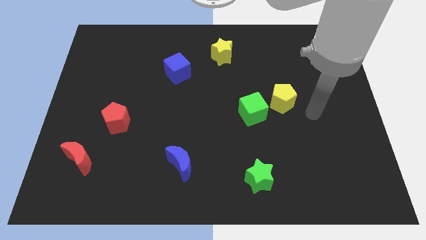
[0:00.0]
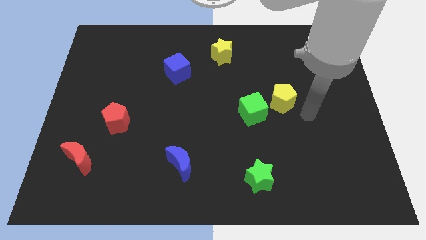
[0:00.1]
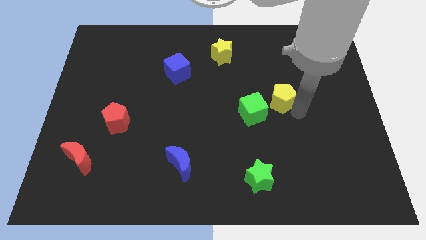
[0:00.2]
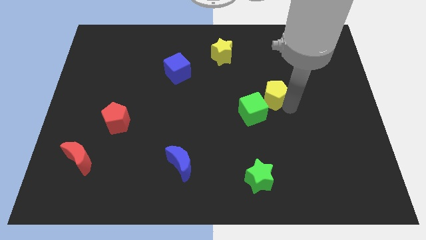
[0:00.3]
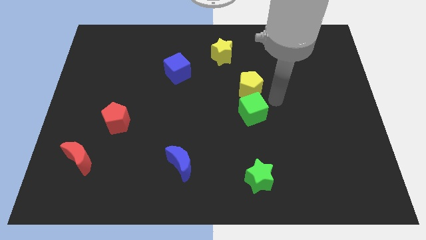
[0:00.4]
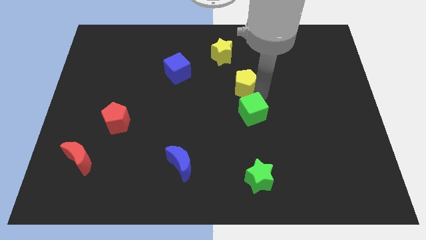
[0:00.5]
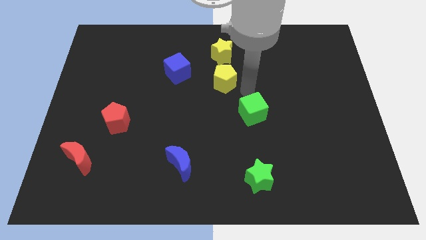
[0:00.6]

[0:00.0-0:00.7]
separate the green cube from the yellow pentagon

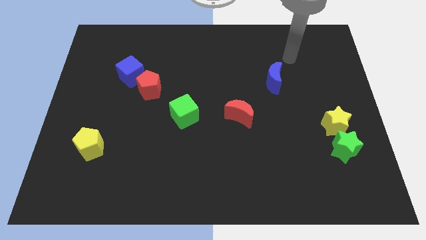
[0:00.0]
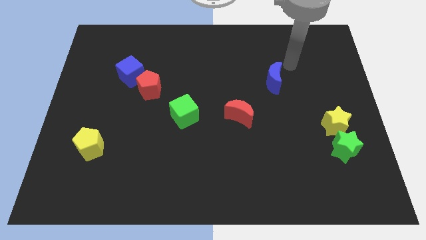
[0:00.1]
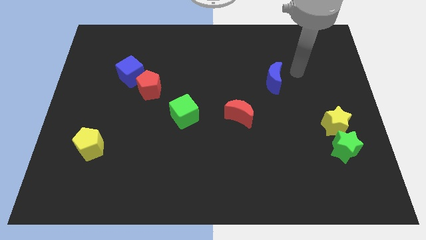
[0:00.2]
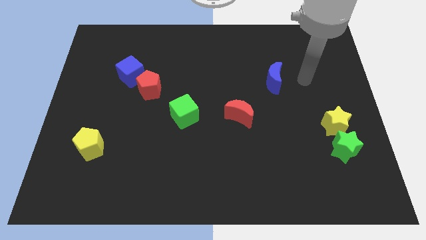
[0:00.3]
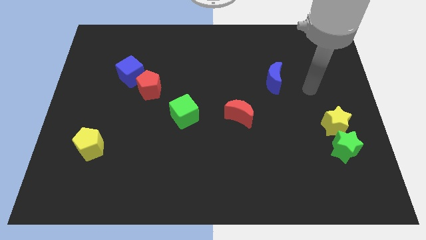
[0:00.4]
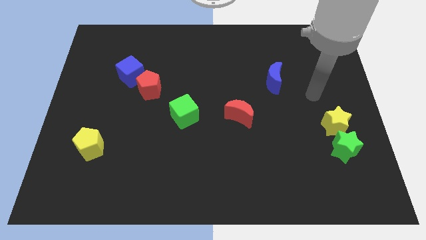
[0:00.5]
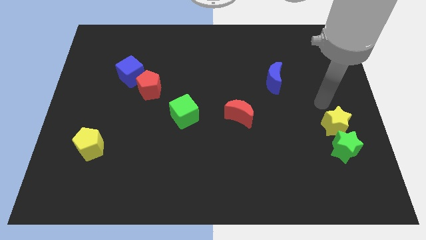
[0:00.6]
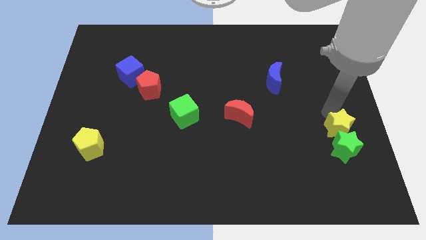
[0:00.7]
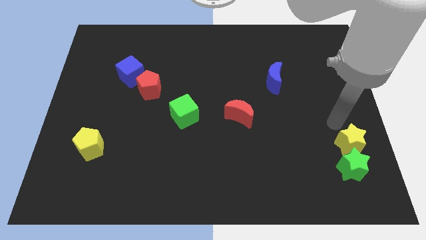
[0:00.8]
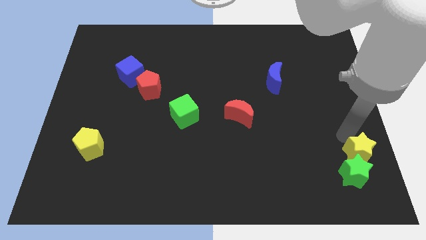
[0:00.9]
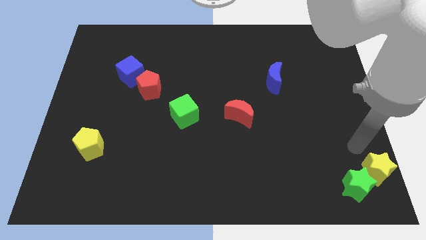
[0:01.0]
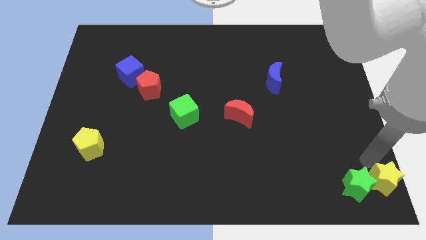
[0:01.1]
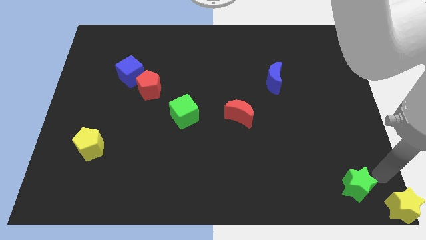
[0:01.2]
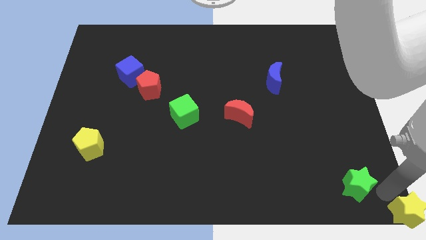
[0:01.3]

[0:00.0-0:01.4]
separate the green star from the yellow star

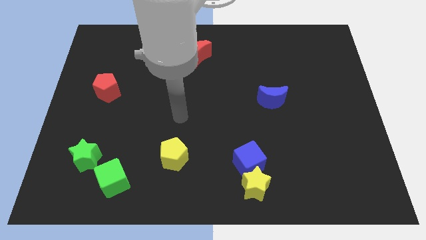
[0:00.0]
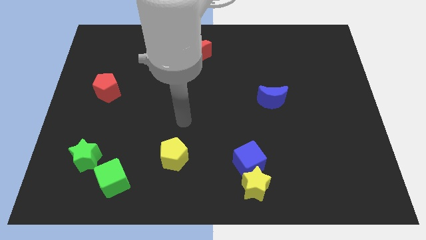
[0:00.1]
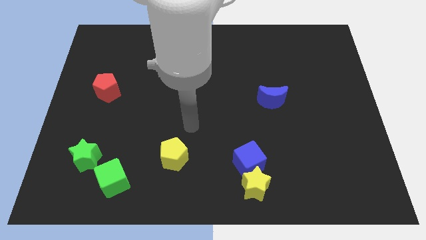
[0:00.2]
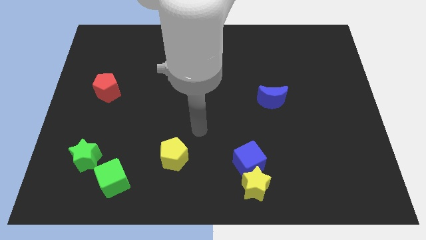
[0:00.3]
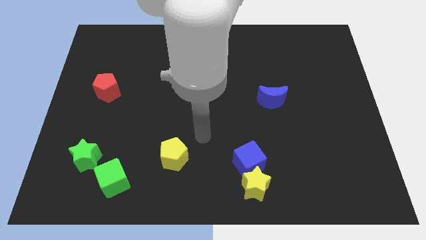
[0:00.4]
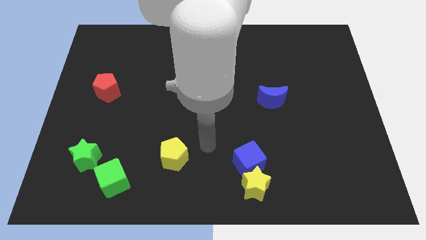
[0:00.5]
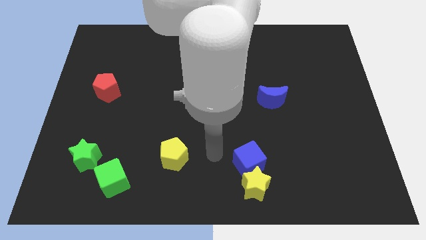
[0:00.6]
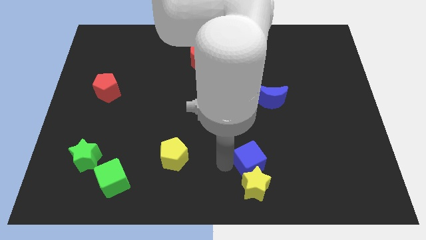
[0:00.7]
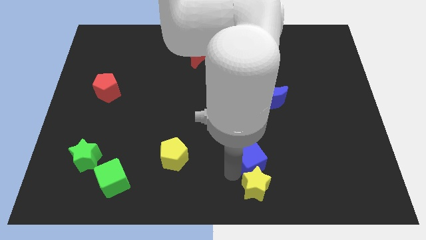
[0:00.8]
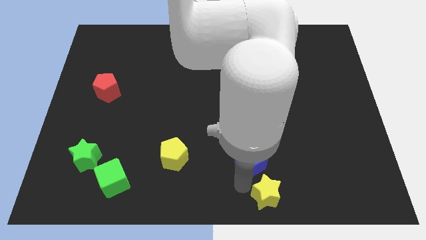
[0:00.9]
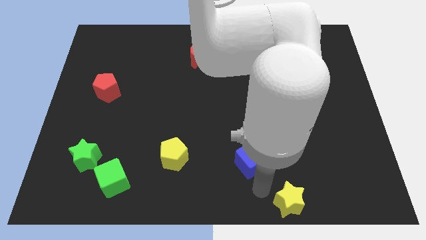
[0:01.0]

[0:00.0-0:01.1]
move the blue cube away from the yellow star

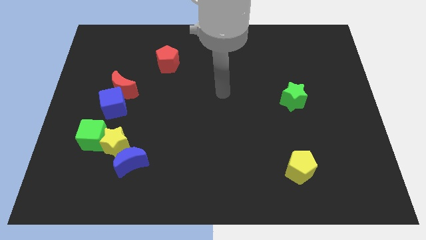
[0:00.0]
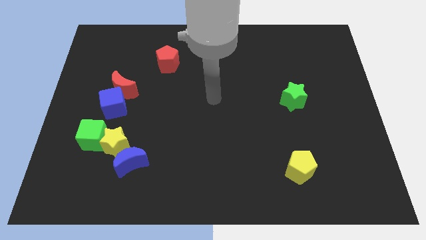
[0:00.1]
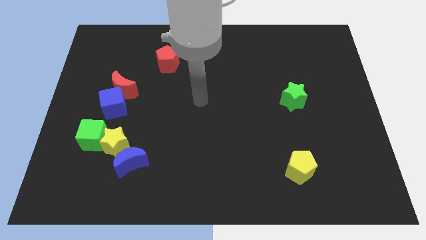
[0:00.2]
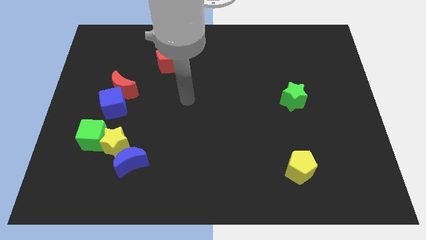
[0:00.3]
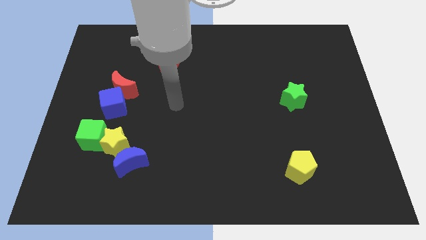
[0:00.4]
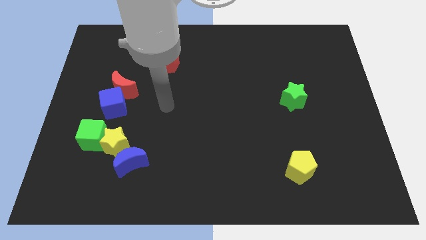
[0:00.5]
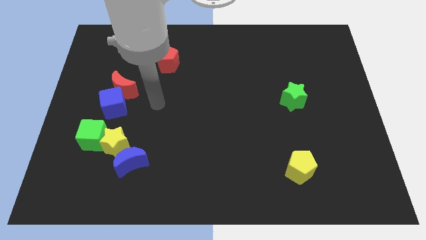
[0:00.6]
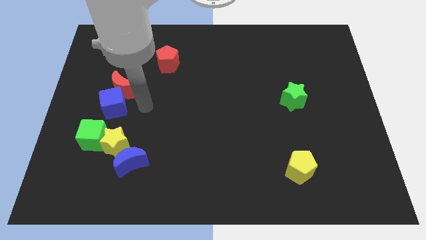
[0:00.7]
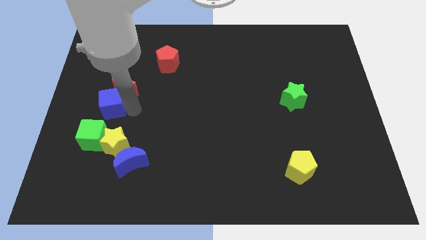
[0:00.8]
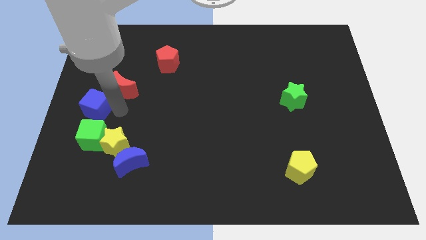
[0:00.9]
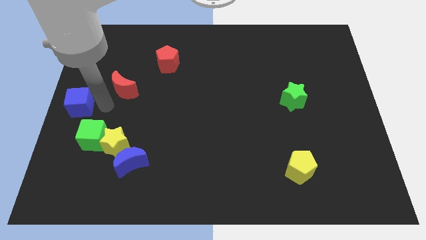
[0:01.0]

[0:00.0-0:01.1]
move the red moon away from the blue cube

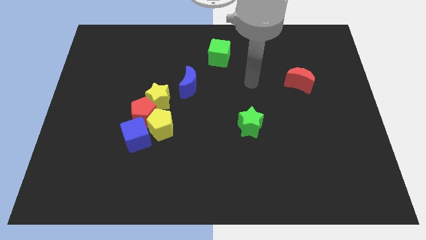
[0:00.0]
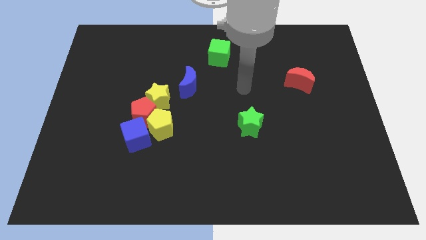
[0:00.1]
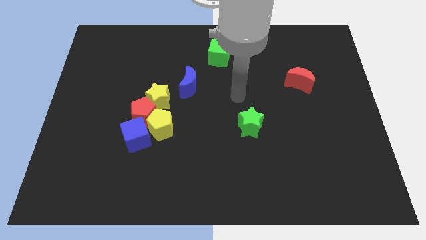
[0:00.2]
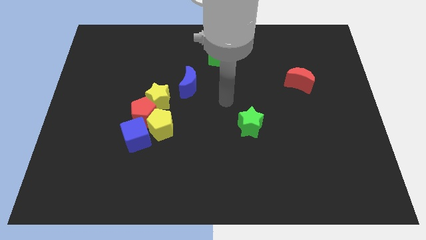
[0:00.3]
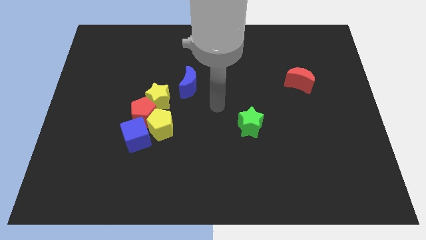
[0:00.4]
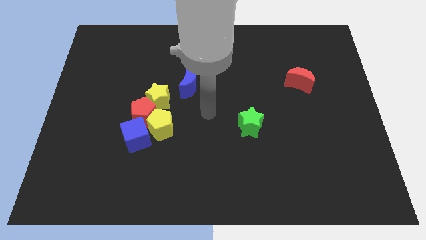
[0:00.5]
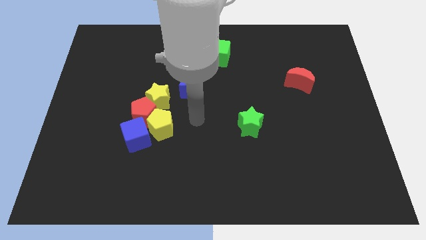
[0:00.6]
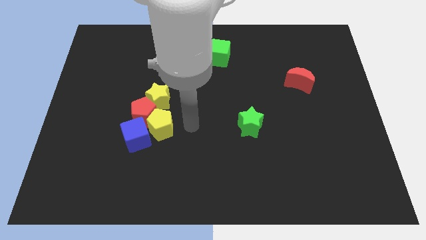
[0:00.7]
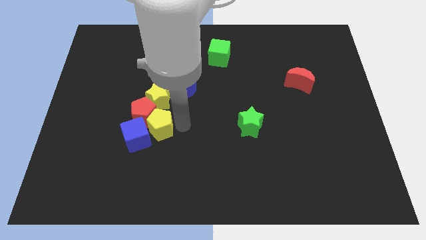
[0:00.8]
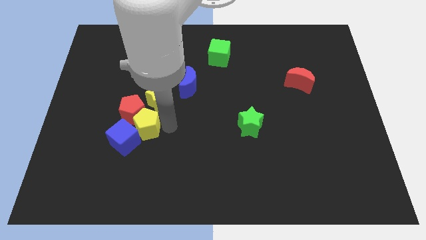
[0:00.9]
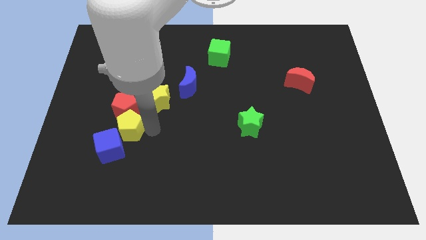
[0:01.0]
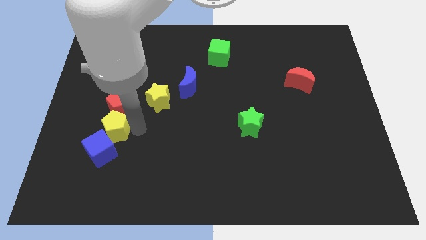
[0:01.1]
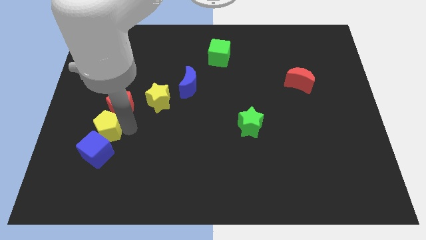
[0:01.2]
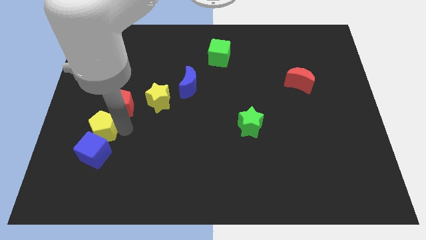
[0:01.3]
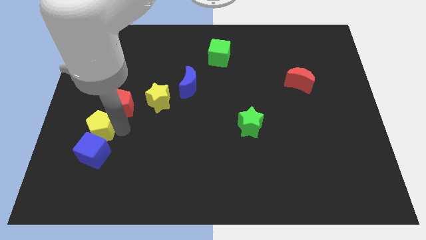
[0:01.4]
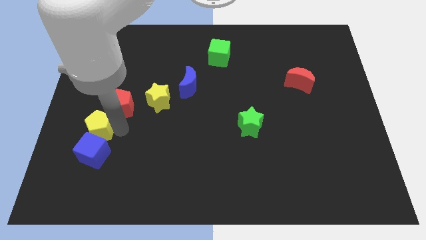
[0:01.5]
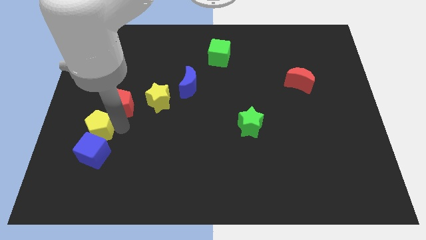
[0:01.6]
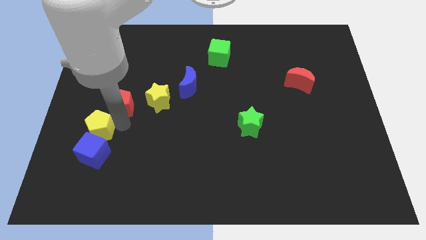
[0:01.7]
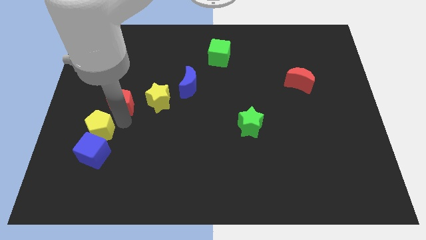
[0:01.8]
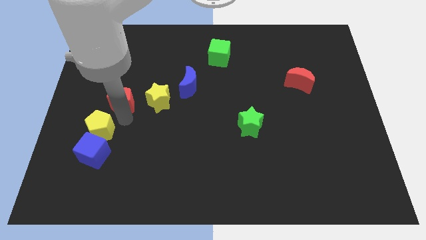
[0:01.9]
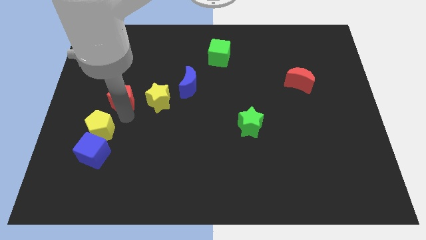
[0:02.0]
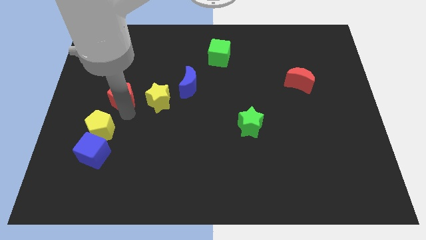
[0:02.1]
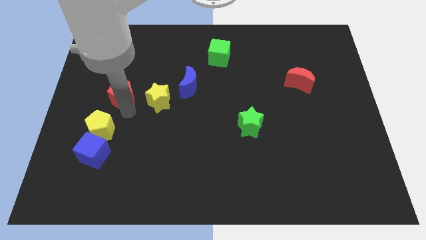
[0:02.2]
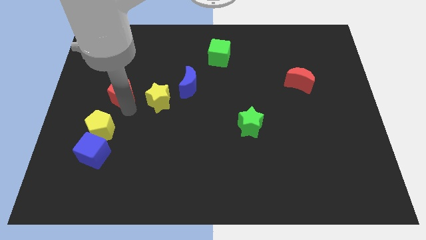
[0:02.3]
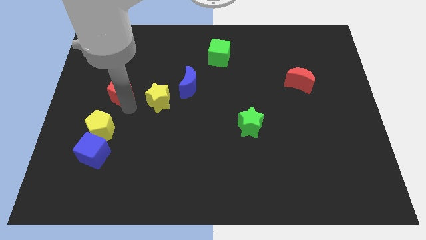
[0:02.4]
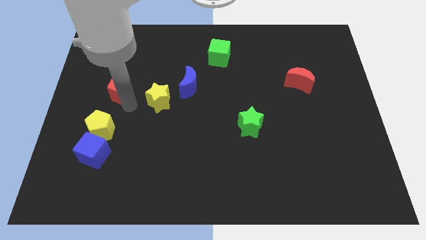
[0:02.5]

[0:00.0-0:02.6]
move the red pentagon away from the yellow star, yellow pentagon, and blue cube

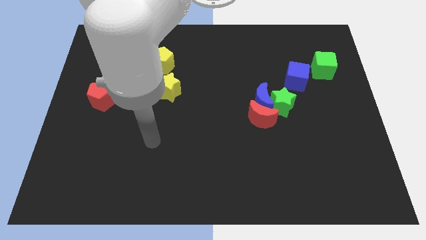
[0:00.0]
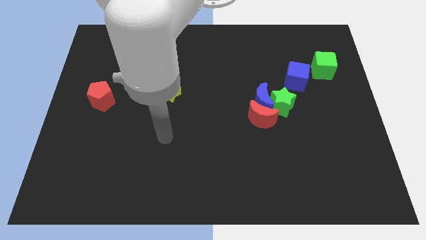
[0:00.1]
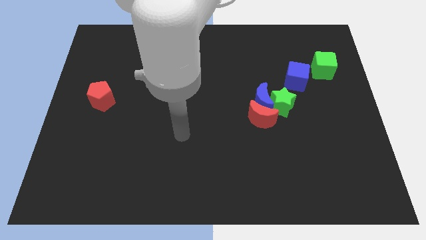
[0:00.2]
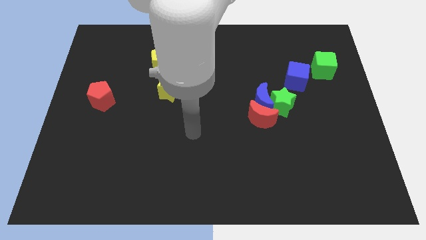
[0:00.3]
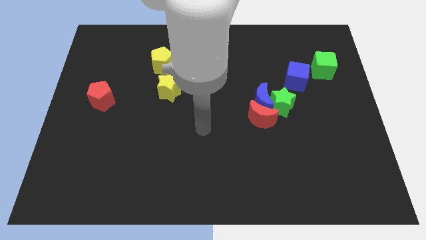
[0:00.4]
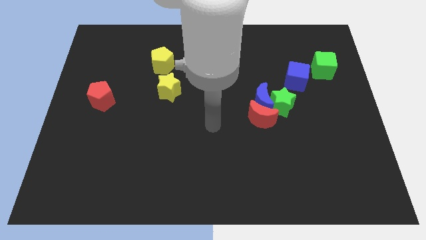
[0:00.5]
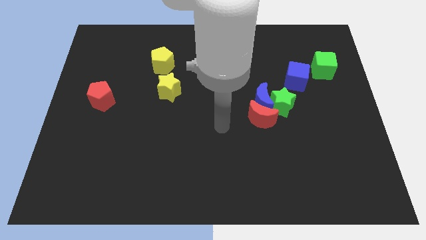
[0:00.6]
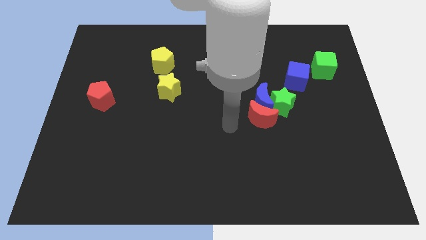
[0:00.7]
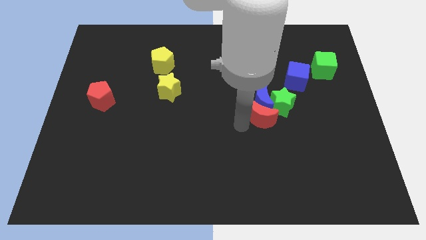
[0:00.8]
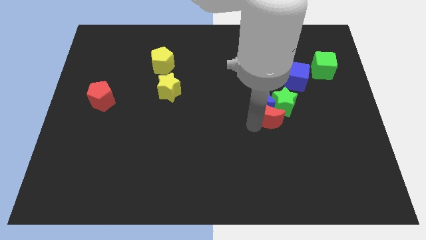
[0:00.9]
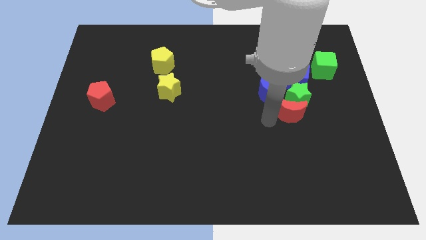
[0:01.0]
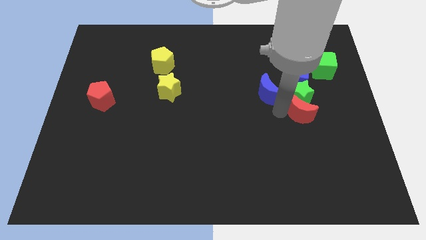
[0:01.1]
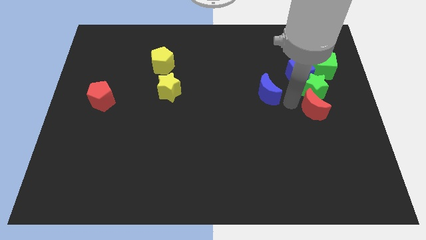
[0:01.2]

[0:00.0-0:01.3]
move the blue moon away from the green star and red moon

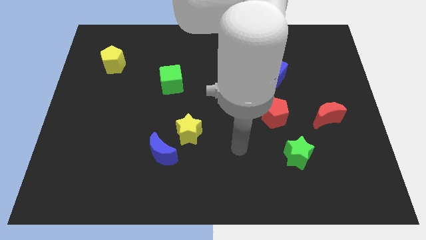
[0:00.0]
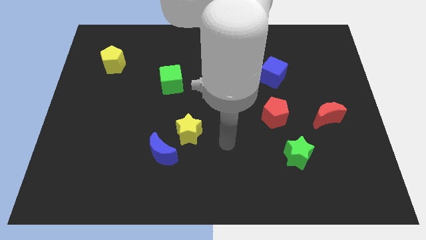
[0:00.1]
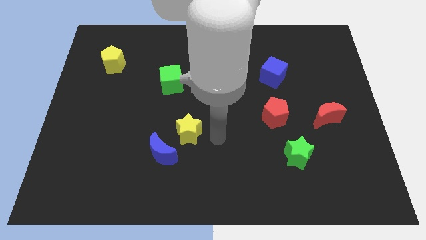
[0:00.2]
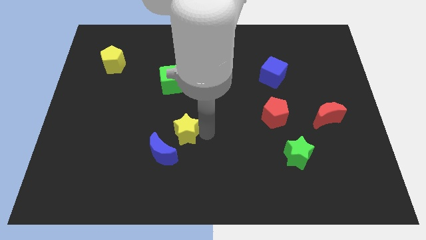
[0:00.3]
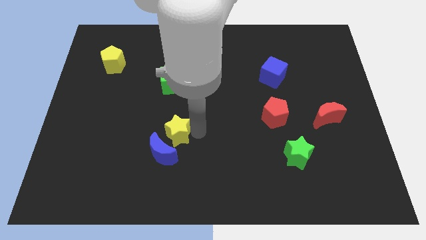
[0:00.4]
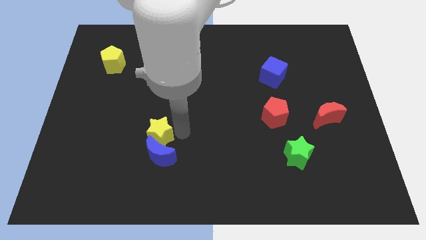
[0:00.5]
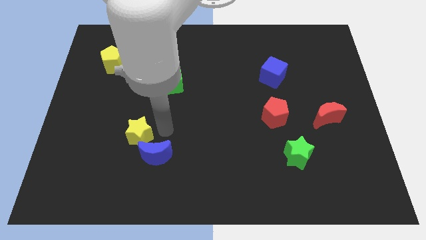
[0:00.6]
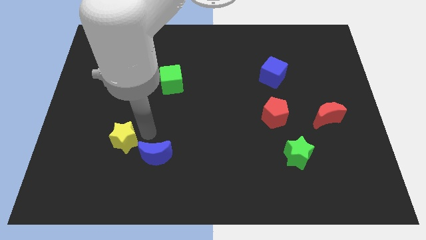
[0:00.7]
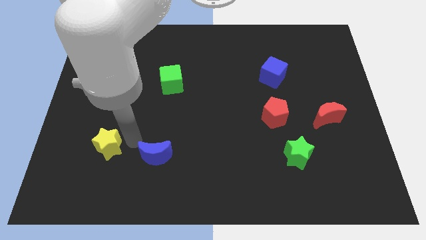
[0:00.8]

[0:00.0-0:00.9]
pull the blue moon apart from the yellow star

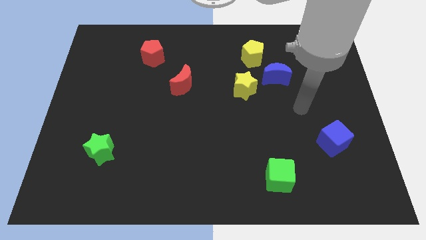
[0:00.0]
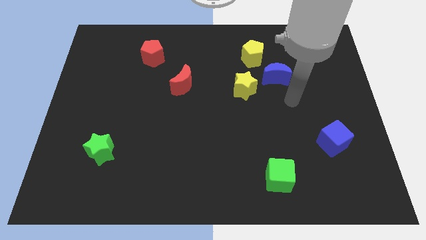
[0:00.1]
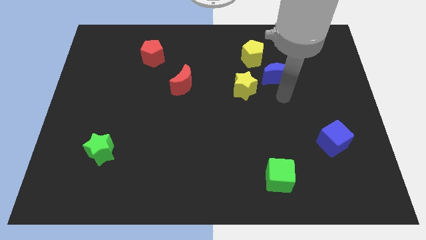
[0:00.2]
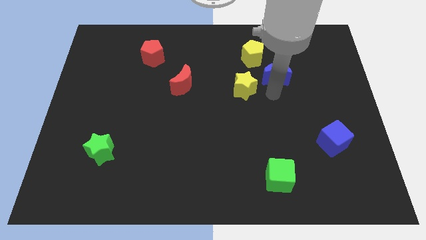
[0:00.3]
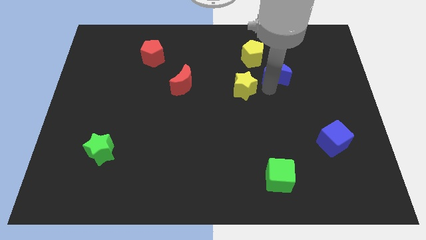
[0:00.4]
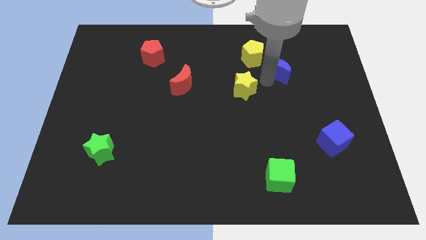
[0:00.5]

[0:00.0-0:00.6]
move the yellow star away from the blue moon
